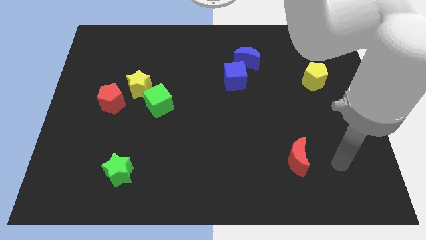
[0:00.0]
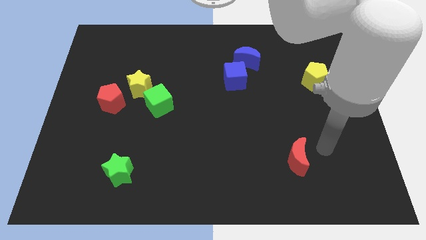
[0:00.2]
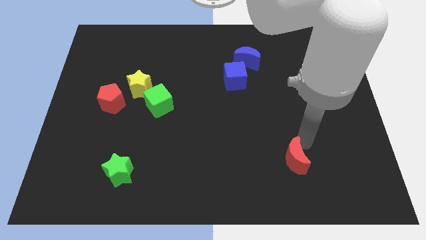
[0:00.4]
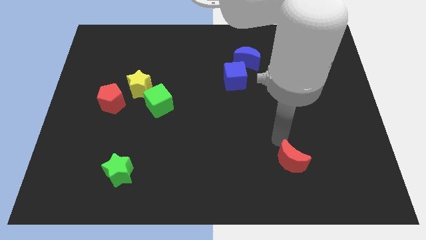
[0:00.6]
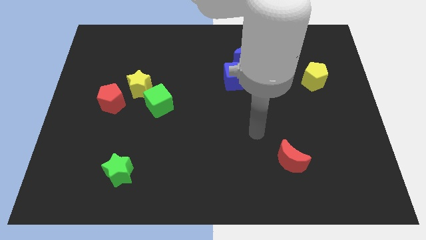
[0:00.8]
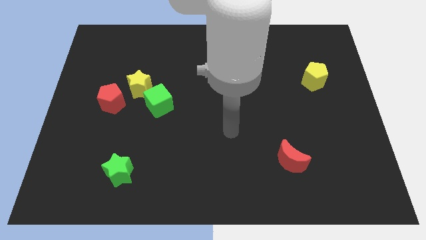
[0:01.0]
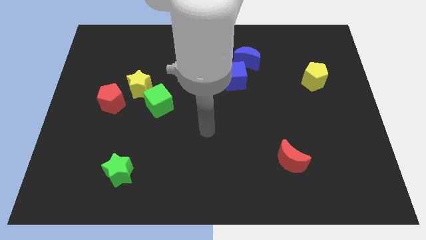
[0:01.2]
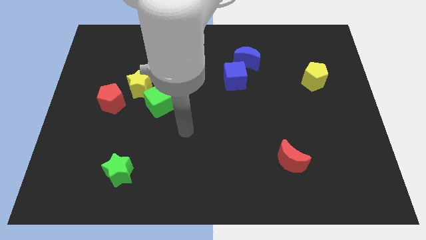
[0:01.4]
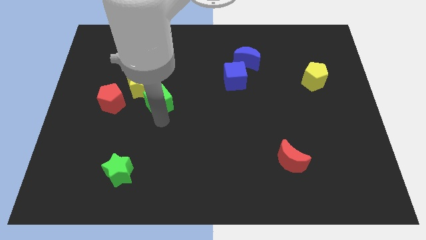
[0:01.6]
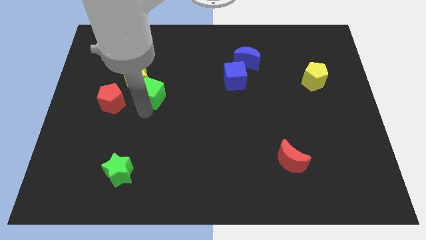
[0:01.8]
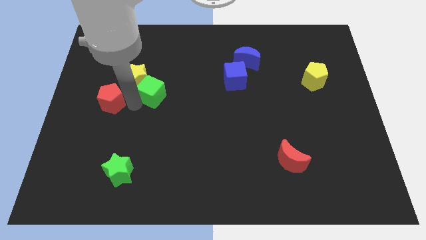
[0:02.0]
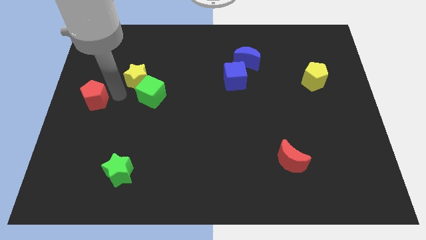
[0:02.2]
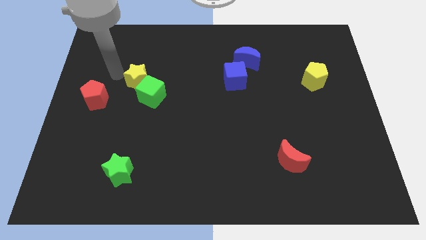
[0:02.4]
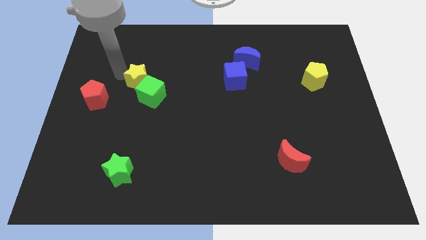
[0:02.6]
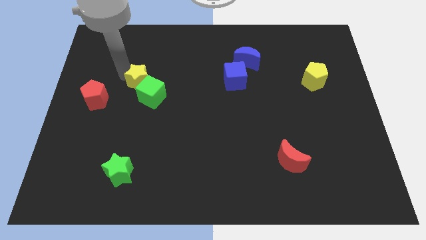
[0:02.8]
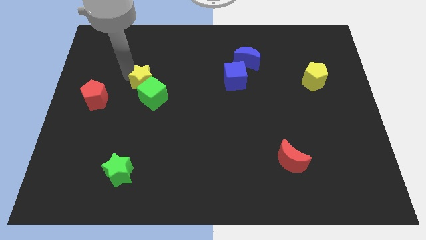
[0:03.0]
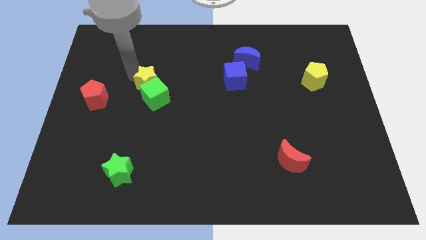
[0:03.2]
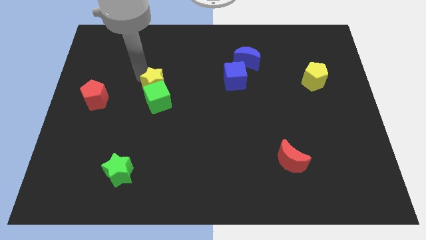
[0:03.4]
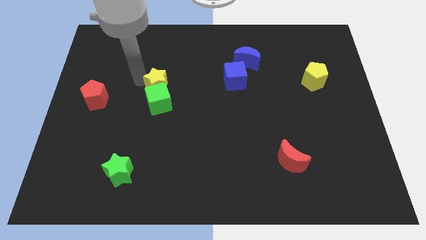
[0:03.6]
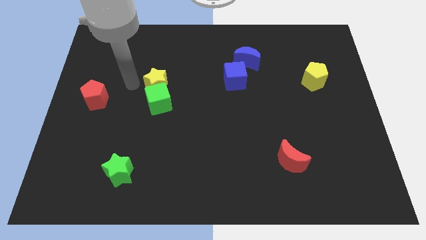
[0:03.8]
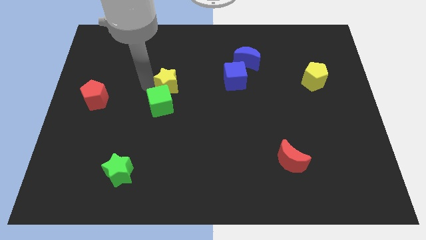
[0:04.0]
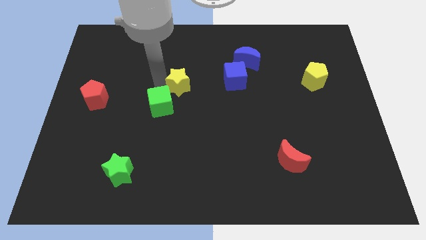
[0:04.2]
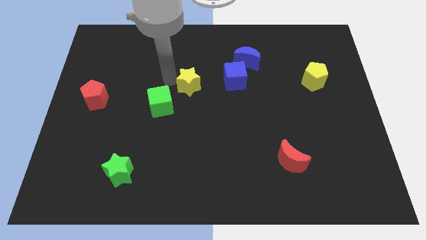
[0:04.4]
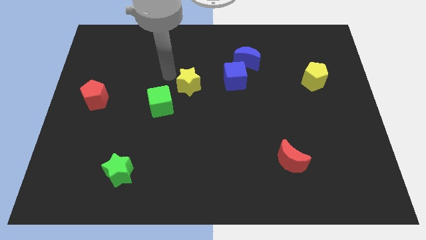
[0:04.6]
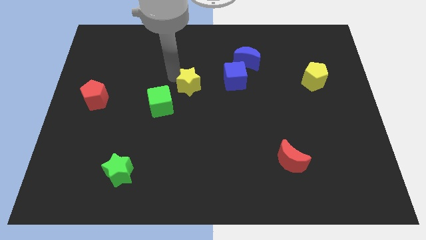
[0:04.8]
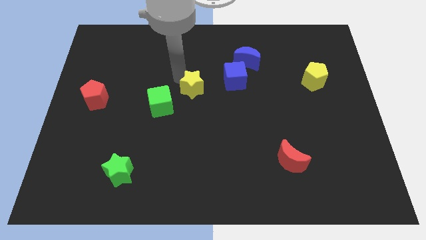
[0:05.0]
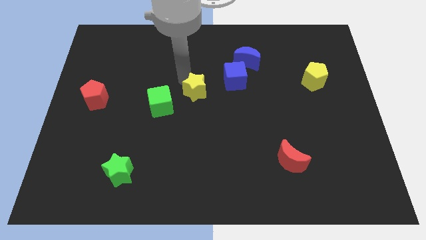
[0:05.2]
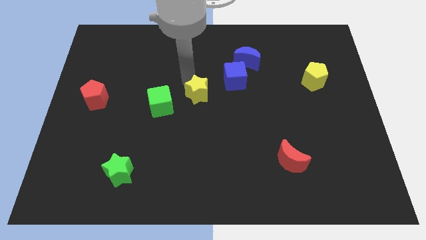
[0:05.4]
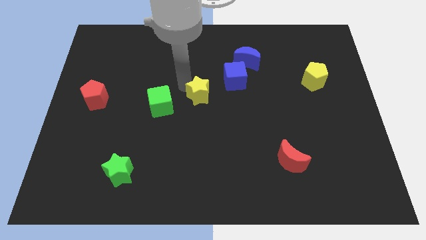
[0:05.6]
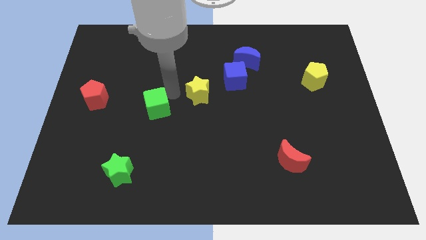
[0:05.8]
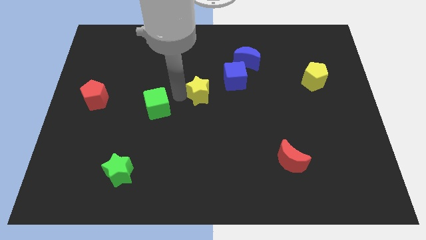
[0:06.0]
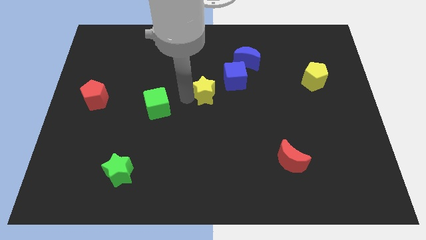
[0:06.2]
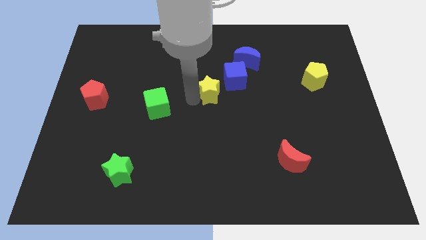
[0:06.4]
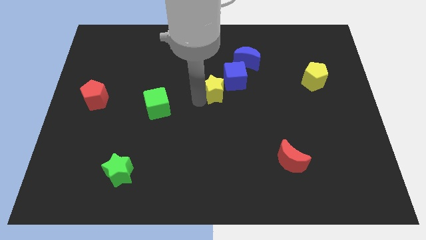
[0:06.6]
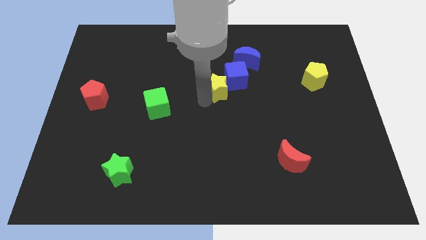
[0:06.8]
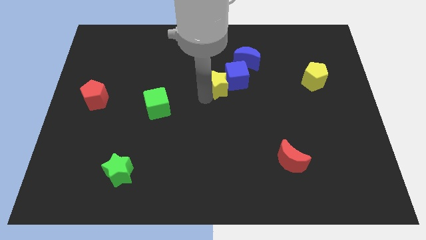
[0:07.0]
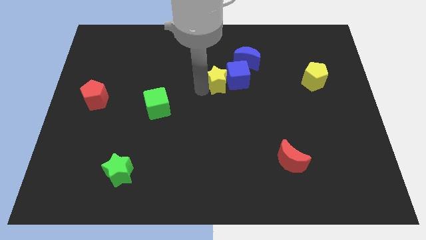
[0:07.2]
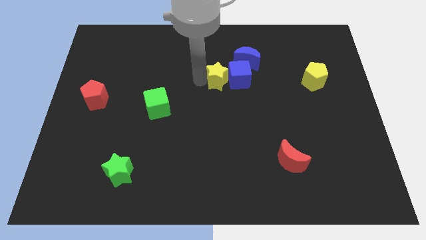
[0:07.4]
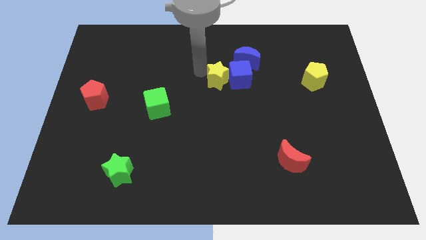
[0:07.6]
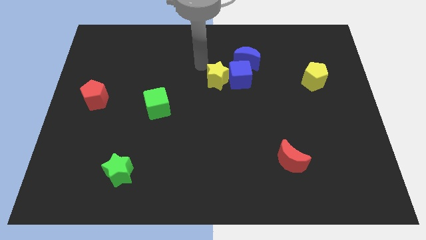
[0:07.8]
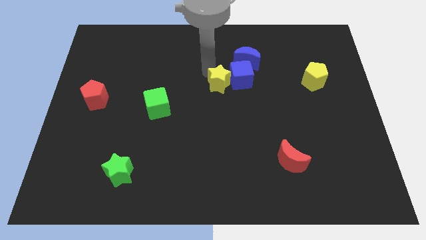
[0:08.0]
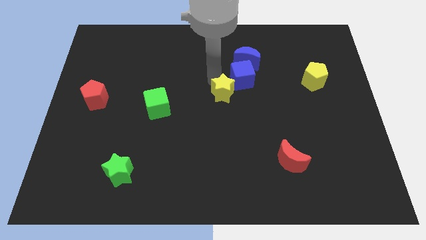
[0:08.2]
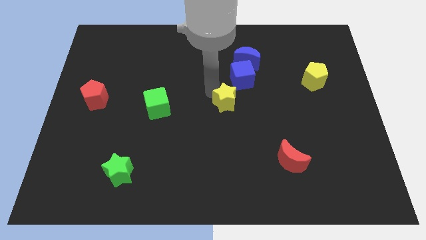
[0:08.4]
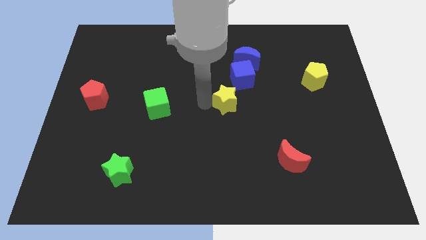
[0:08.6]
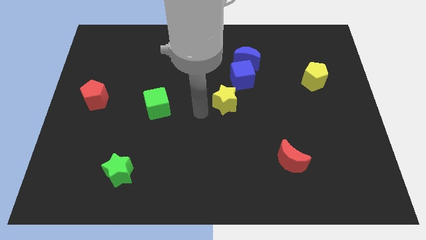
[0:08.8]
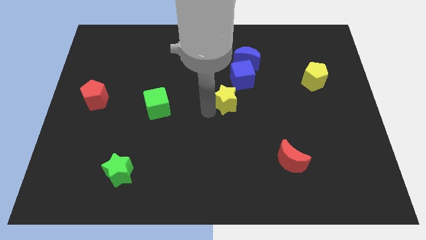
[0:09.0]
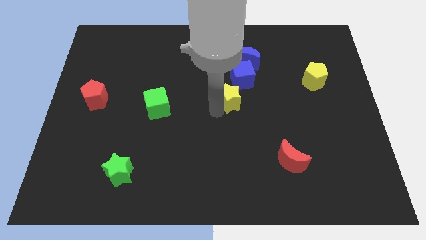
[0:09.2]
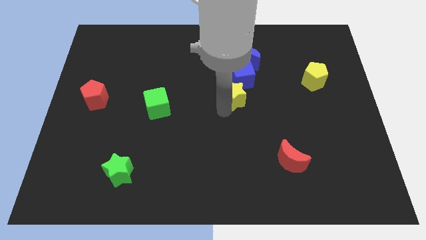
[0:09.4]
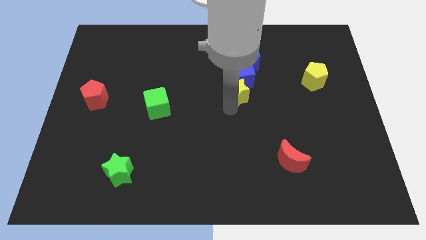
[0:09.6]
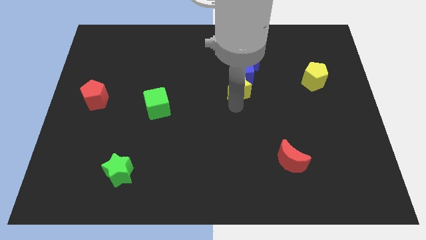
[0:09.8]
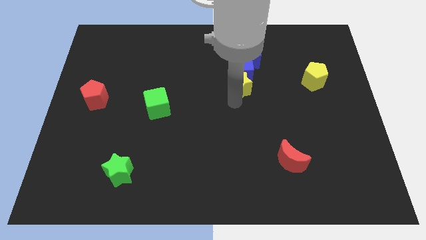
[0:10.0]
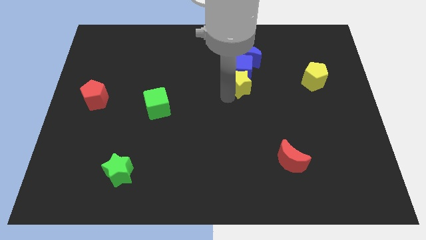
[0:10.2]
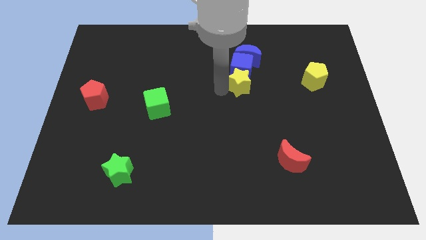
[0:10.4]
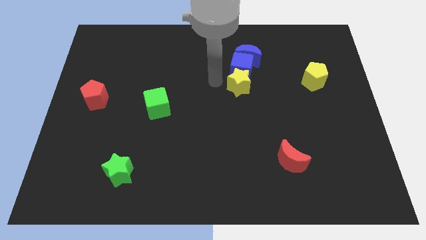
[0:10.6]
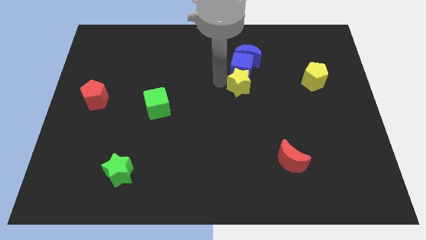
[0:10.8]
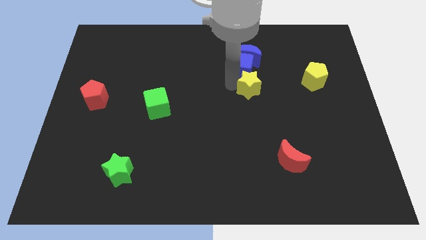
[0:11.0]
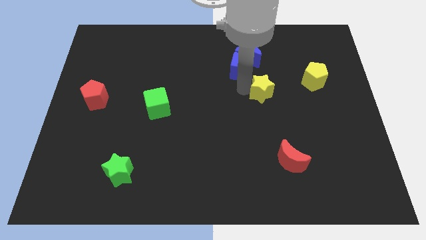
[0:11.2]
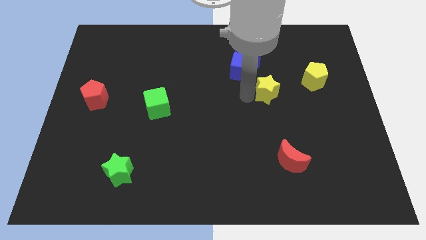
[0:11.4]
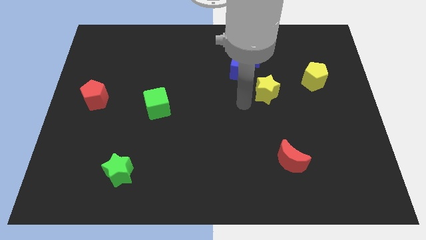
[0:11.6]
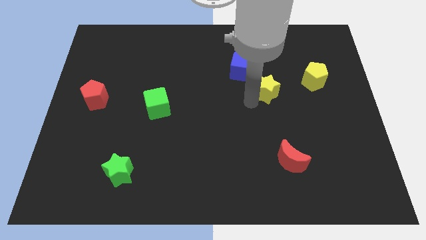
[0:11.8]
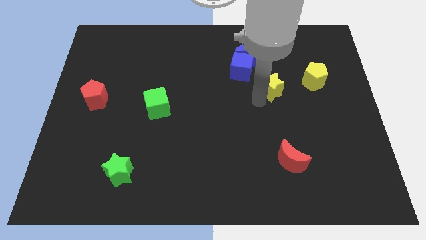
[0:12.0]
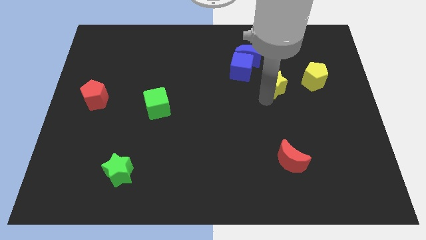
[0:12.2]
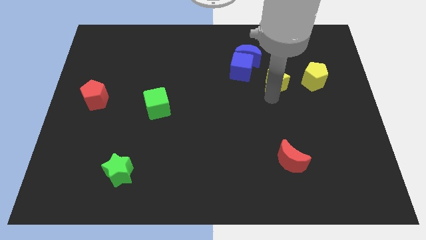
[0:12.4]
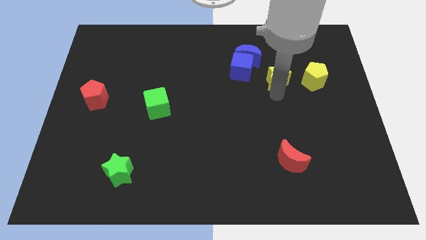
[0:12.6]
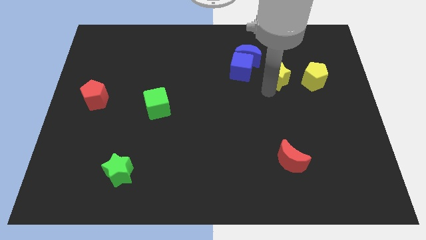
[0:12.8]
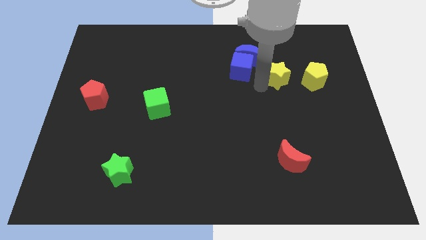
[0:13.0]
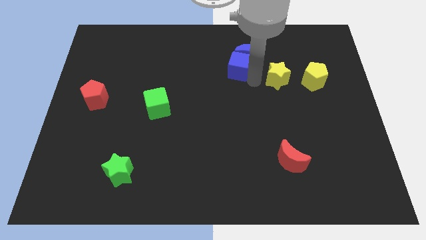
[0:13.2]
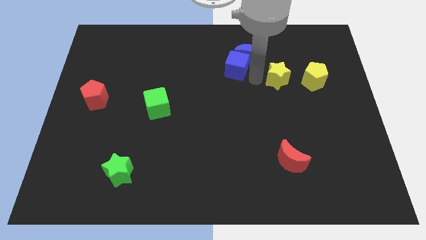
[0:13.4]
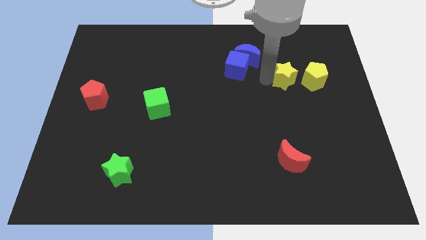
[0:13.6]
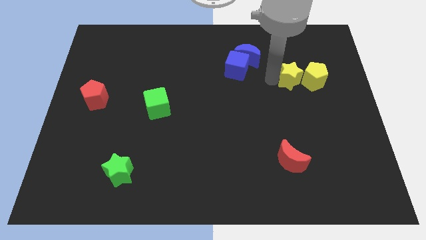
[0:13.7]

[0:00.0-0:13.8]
slide the yellow star to the yellow pentagon
